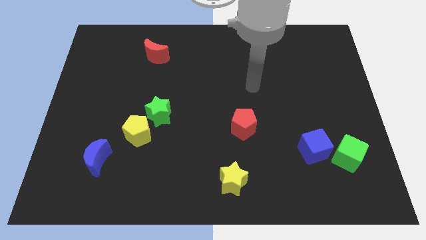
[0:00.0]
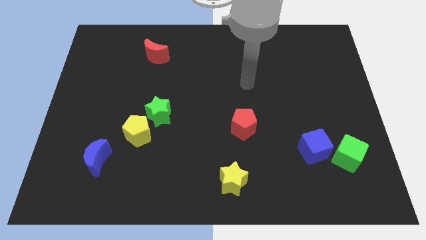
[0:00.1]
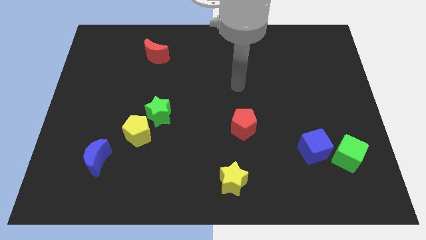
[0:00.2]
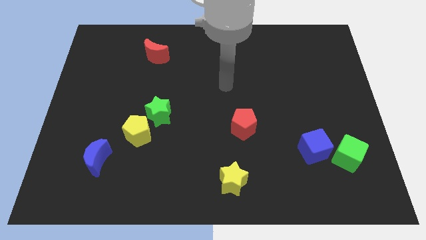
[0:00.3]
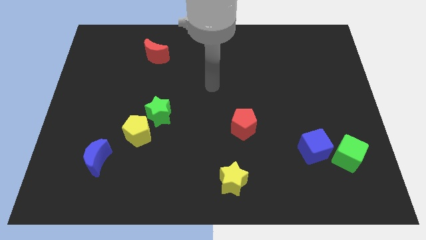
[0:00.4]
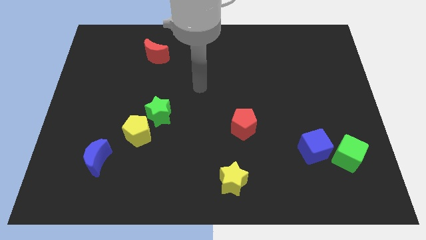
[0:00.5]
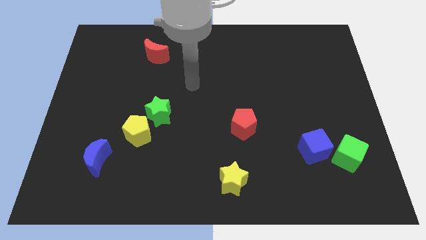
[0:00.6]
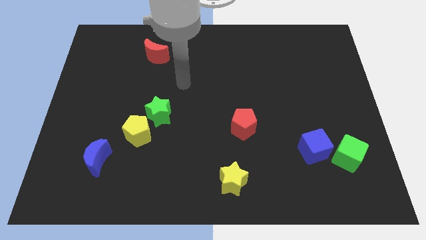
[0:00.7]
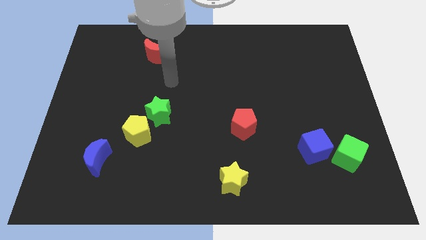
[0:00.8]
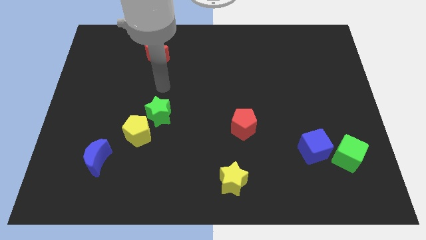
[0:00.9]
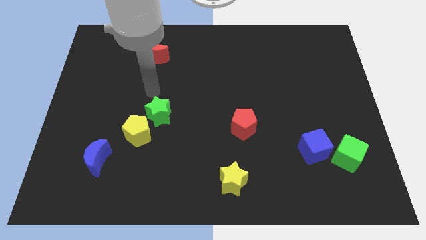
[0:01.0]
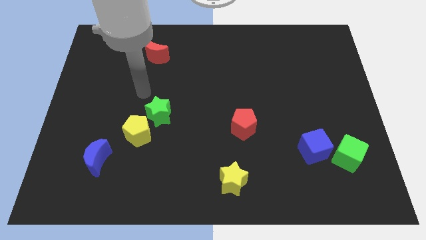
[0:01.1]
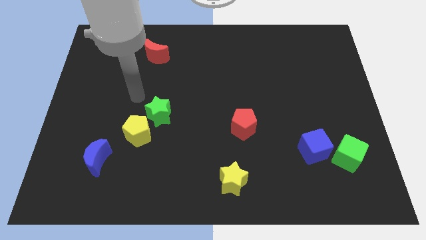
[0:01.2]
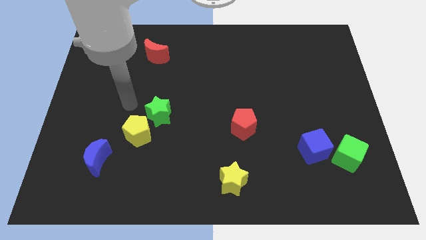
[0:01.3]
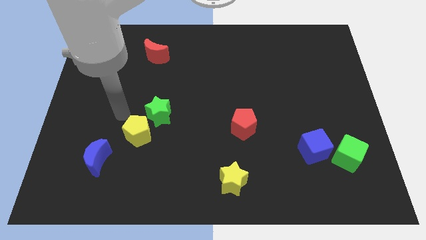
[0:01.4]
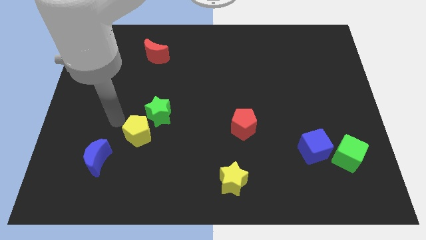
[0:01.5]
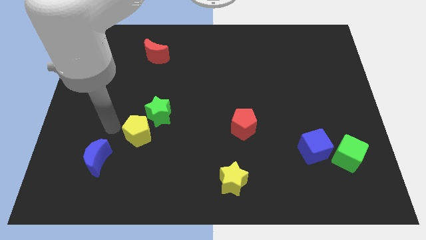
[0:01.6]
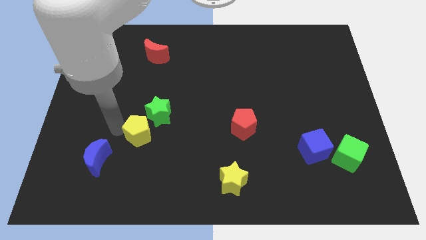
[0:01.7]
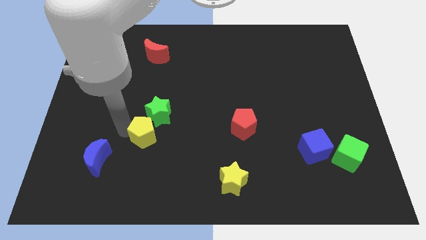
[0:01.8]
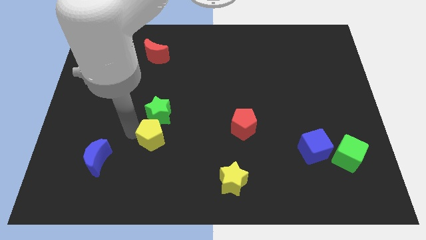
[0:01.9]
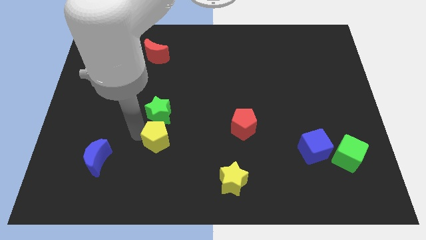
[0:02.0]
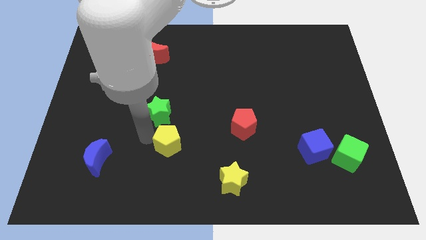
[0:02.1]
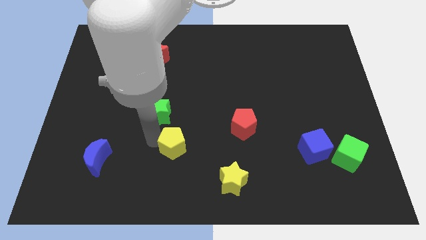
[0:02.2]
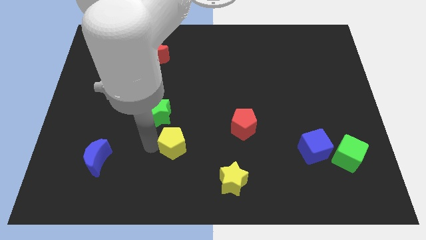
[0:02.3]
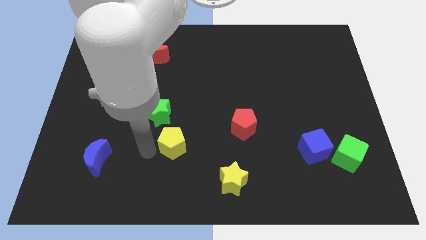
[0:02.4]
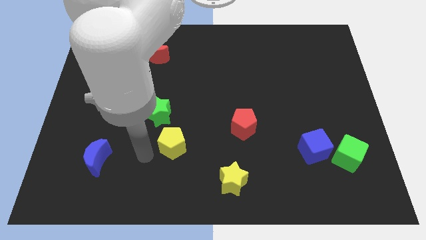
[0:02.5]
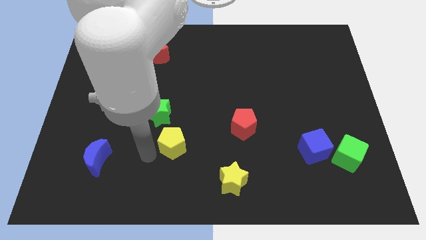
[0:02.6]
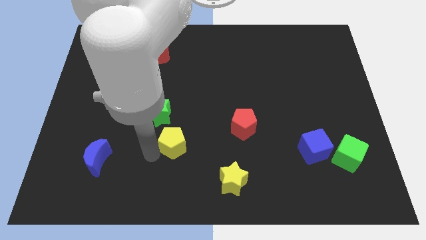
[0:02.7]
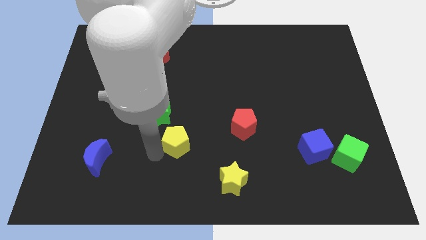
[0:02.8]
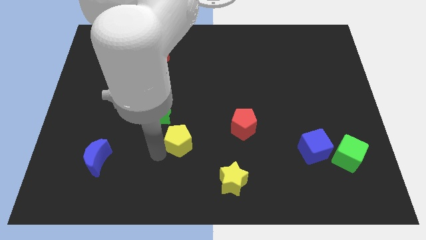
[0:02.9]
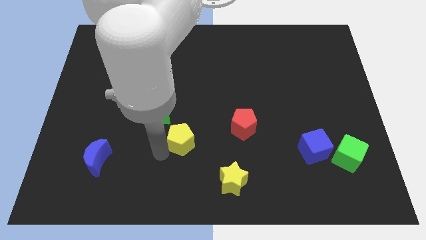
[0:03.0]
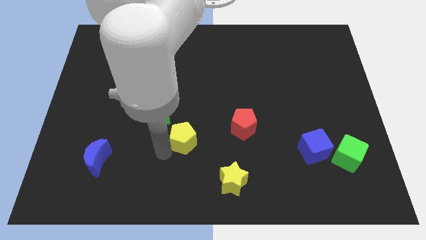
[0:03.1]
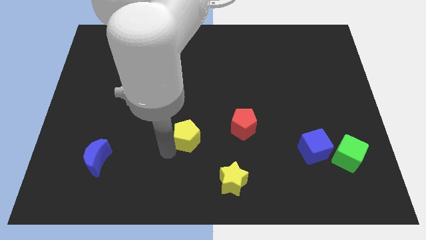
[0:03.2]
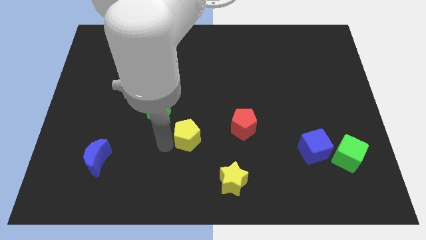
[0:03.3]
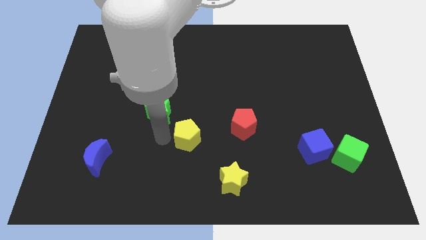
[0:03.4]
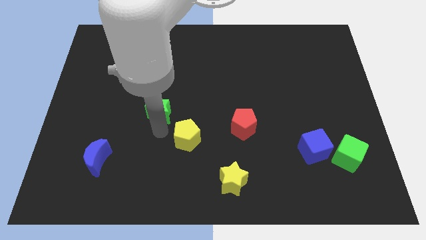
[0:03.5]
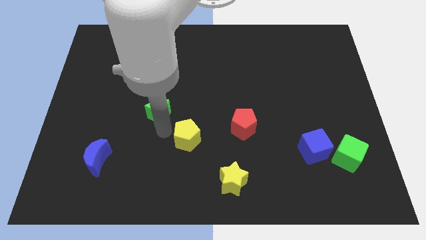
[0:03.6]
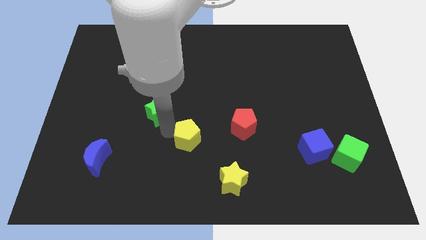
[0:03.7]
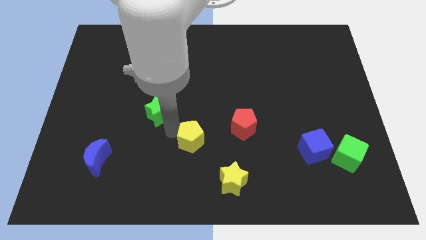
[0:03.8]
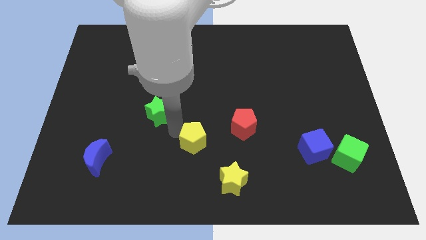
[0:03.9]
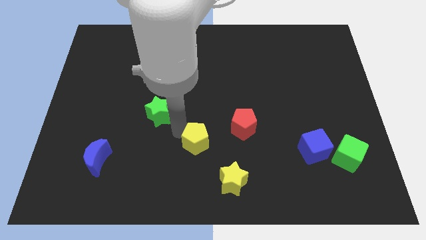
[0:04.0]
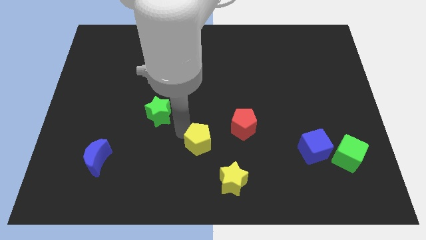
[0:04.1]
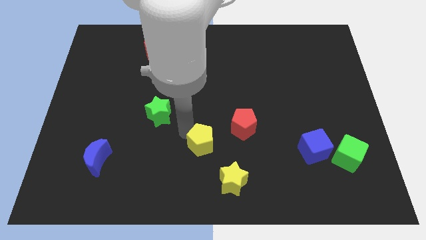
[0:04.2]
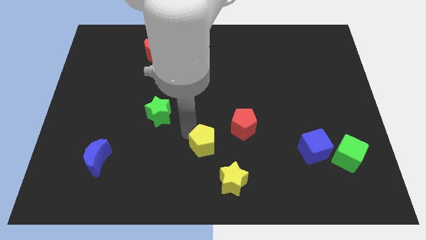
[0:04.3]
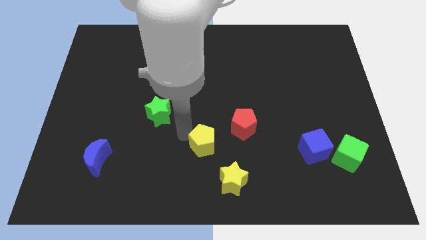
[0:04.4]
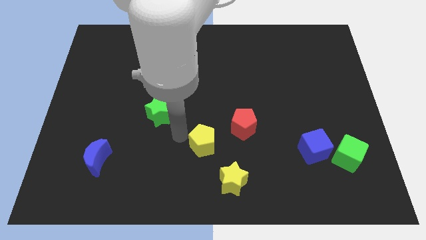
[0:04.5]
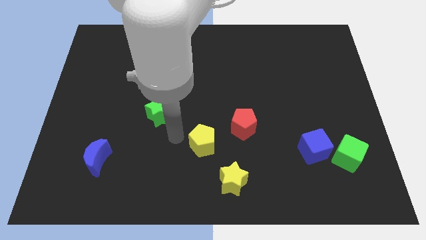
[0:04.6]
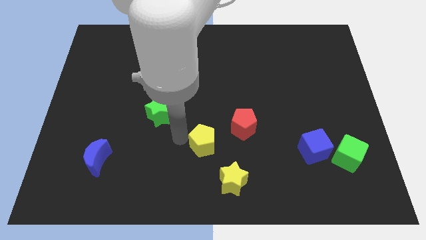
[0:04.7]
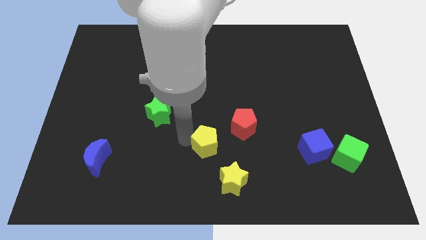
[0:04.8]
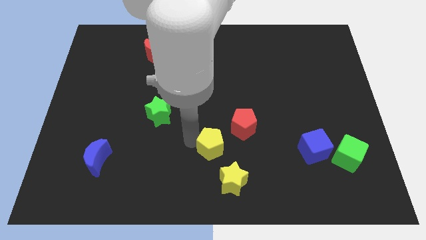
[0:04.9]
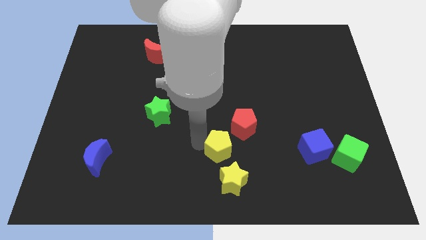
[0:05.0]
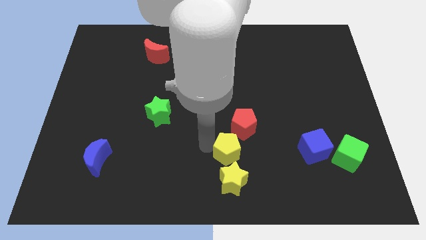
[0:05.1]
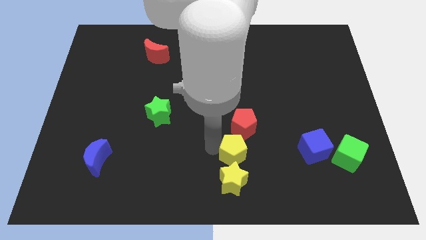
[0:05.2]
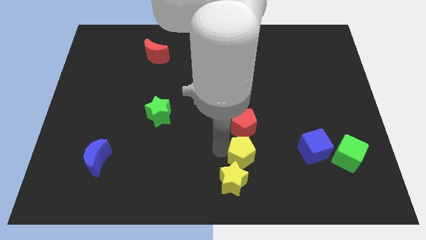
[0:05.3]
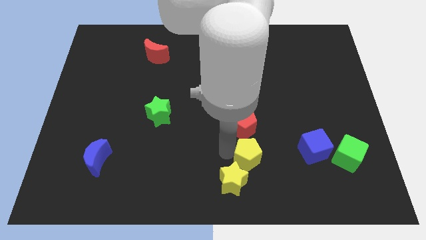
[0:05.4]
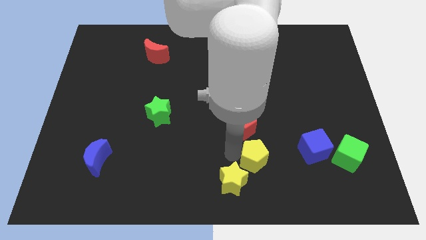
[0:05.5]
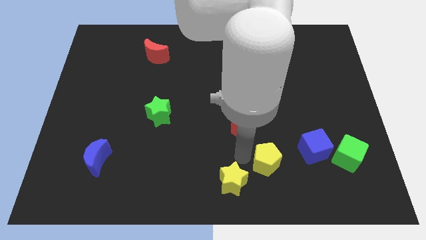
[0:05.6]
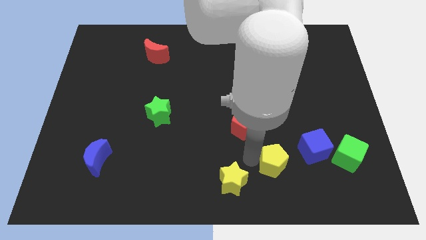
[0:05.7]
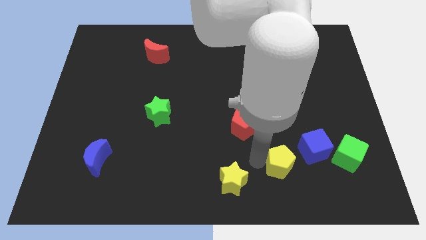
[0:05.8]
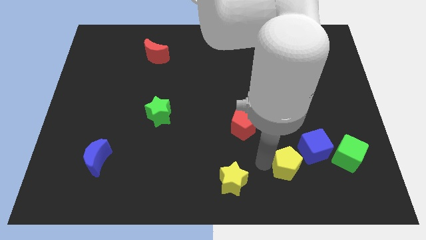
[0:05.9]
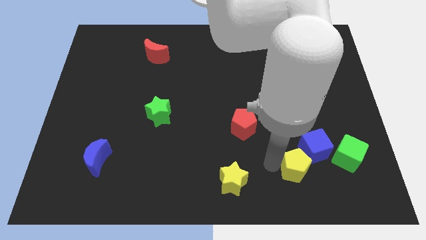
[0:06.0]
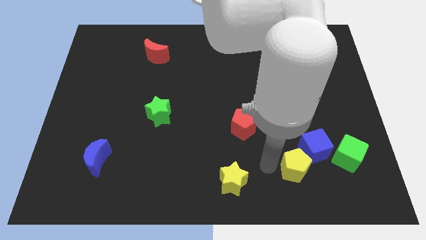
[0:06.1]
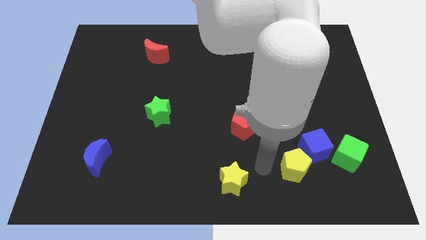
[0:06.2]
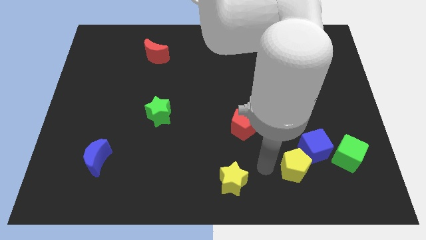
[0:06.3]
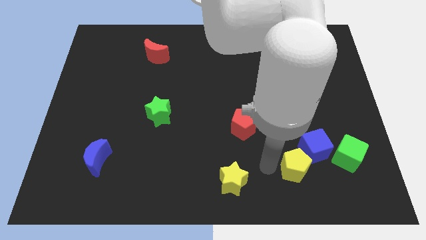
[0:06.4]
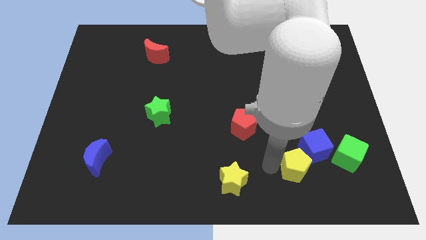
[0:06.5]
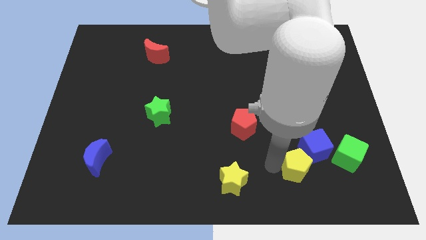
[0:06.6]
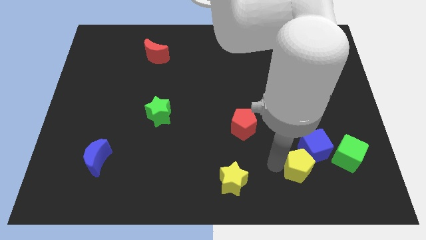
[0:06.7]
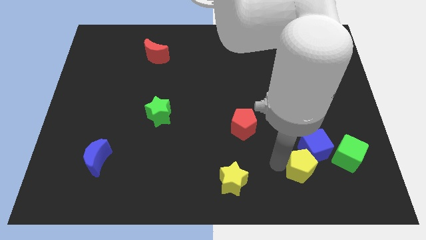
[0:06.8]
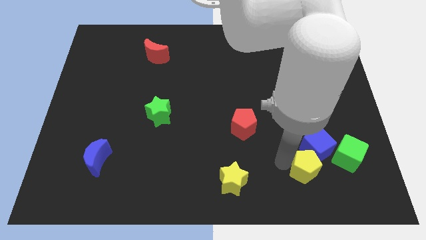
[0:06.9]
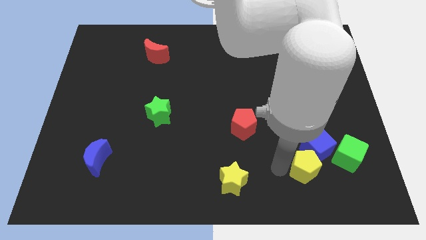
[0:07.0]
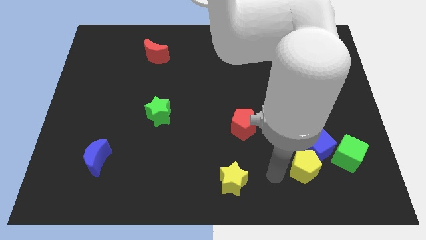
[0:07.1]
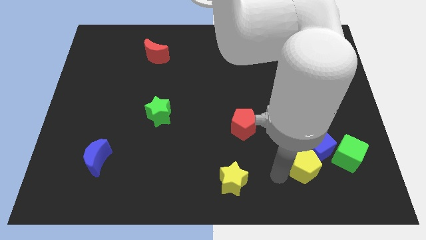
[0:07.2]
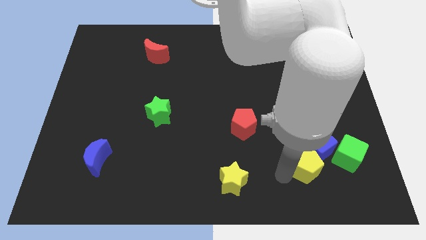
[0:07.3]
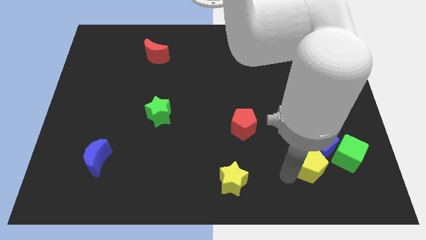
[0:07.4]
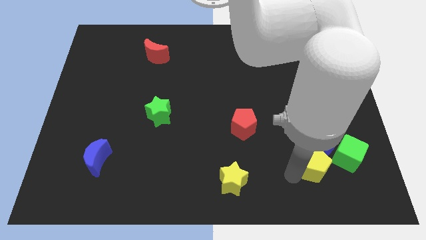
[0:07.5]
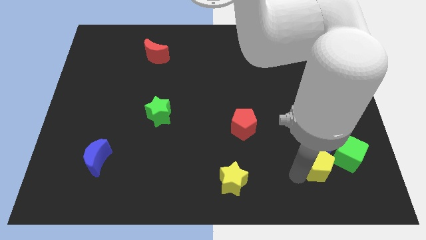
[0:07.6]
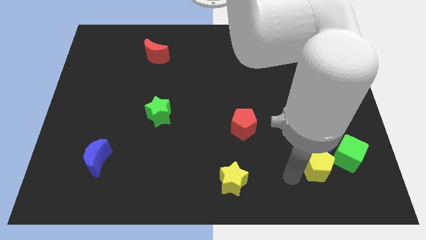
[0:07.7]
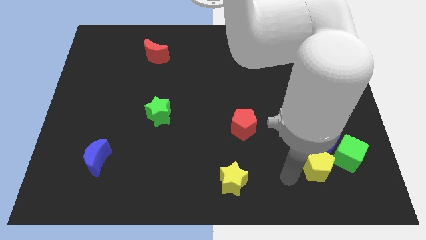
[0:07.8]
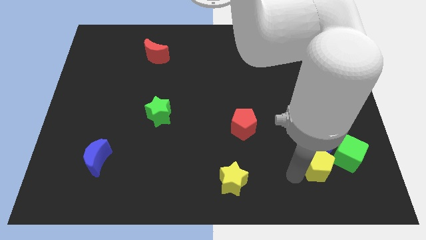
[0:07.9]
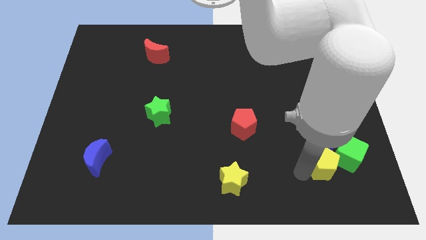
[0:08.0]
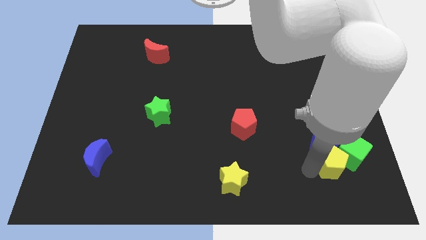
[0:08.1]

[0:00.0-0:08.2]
slide the yellow pentagon next to the green cube
